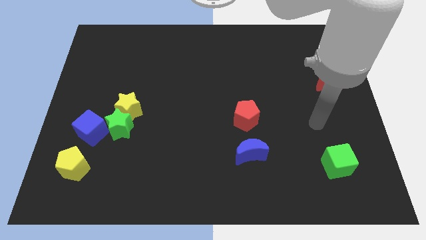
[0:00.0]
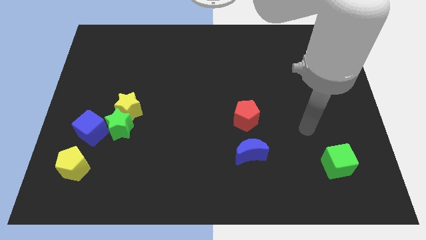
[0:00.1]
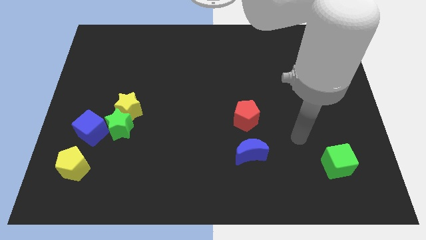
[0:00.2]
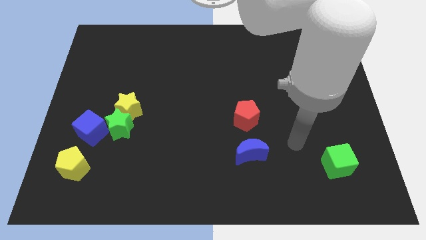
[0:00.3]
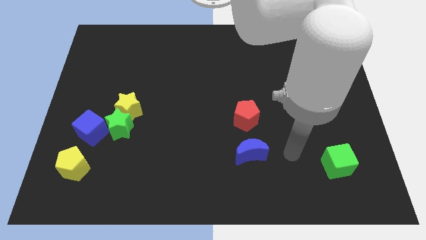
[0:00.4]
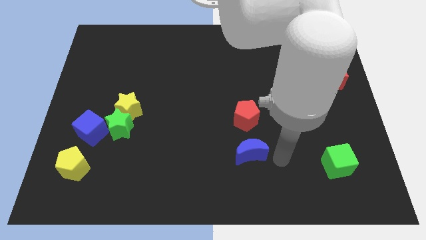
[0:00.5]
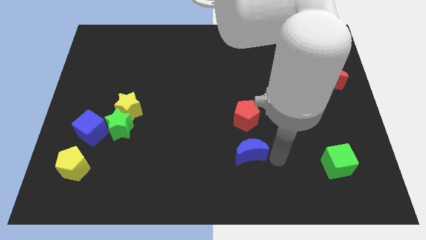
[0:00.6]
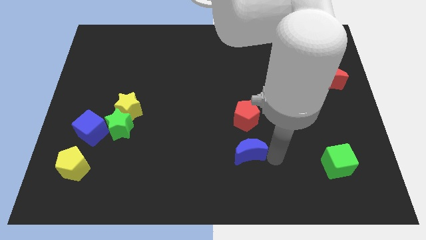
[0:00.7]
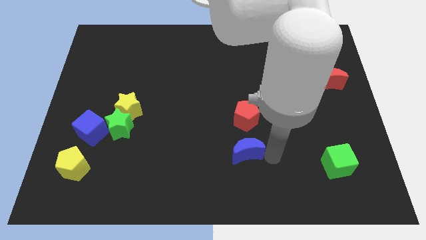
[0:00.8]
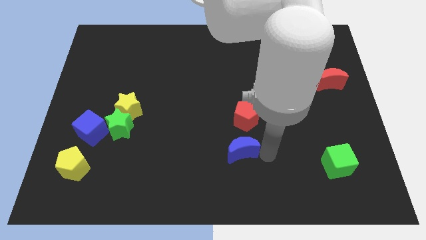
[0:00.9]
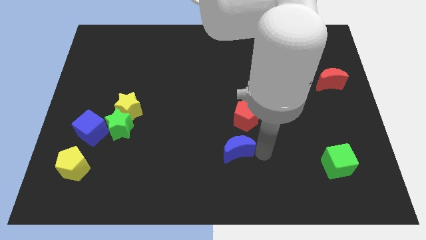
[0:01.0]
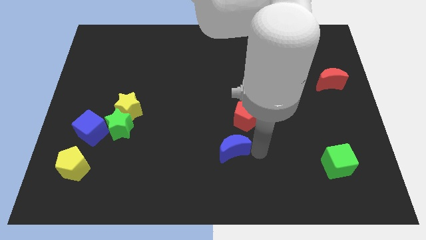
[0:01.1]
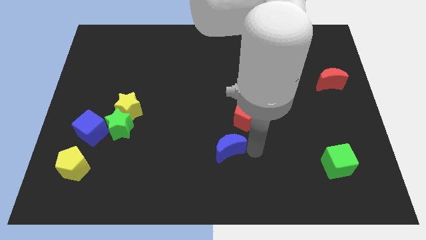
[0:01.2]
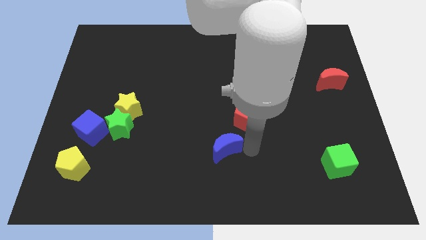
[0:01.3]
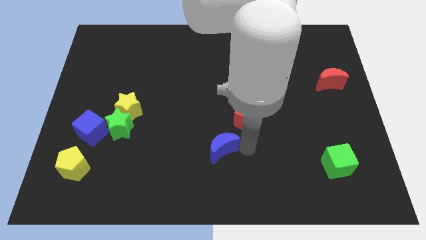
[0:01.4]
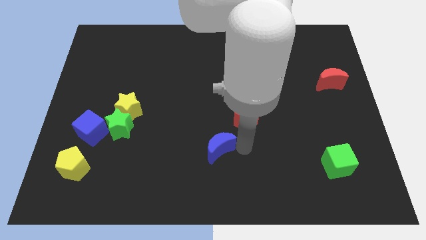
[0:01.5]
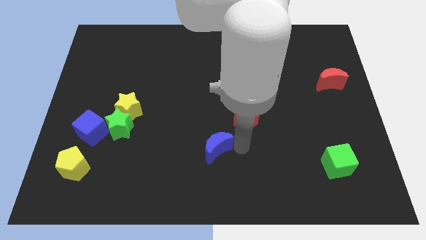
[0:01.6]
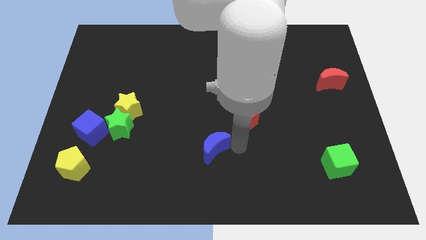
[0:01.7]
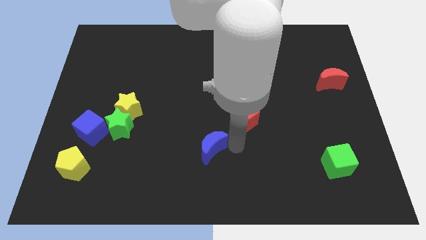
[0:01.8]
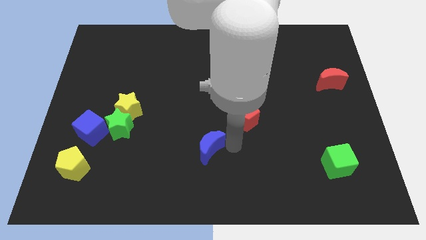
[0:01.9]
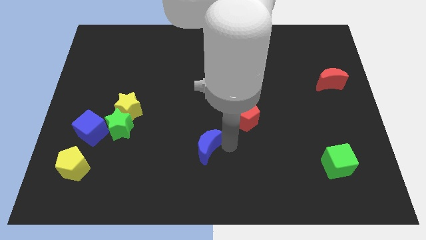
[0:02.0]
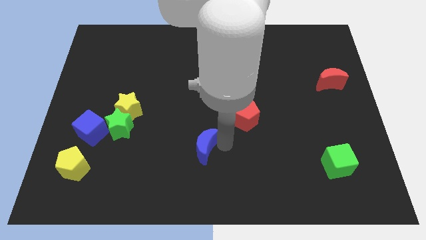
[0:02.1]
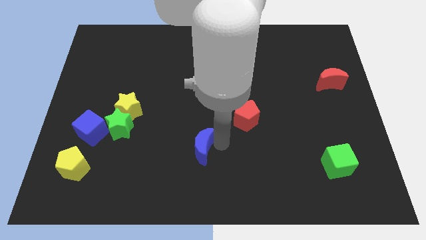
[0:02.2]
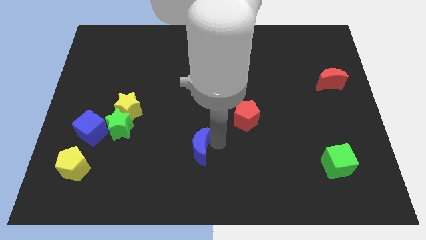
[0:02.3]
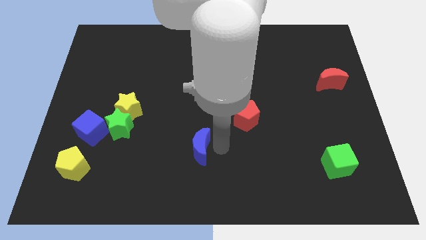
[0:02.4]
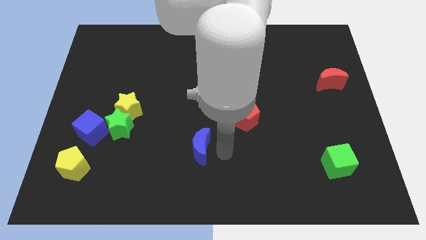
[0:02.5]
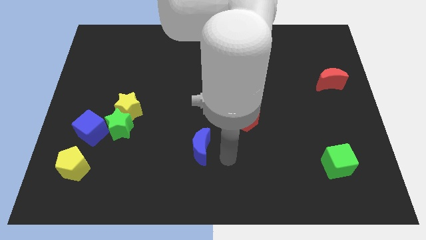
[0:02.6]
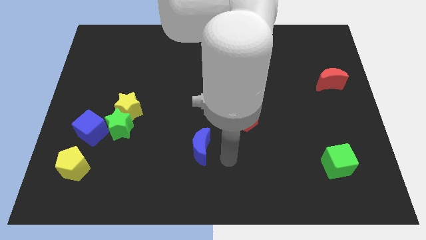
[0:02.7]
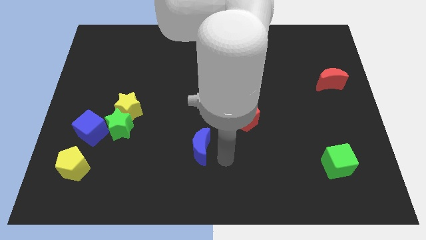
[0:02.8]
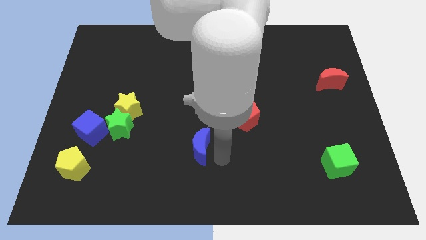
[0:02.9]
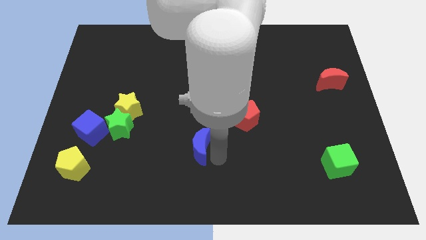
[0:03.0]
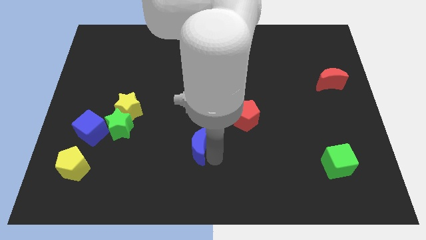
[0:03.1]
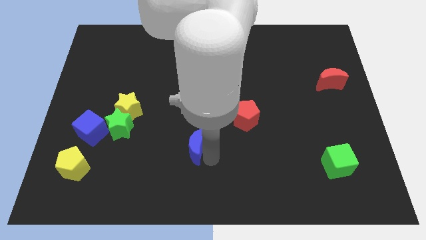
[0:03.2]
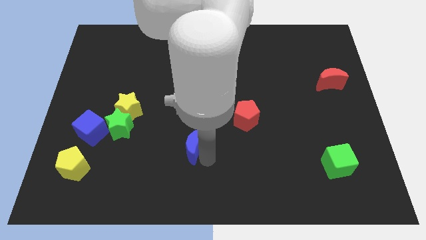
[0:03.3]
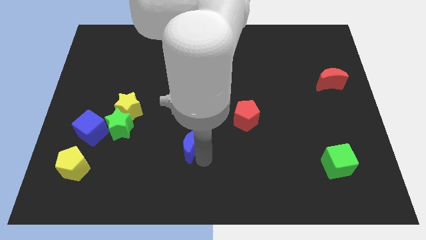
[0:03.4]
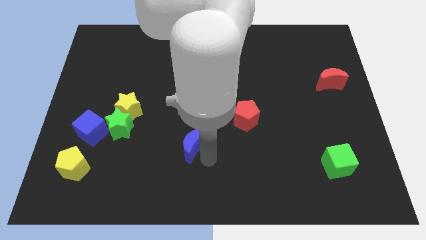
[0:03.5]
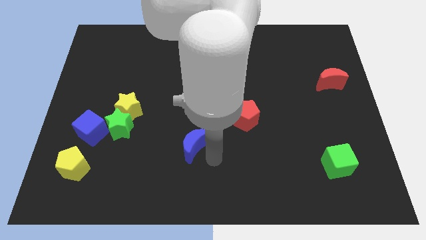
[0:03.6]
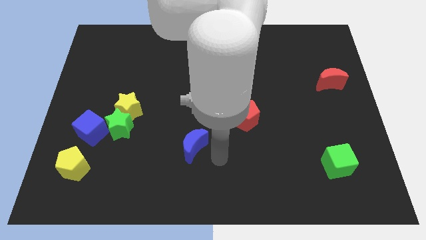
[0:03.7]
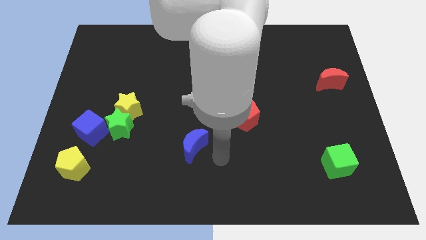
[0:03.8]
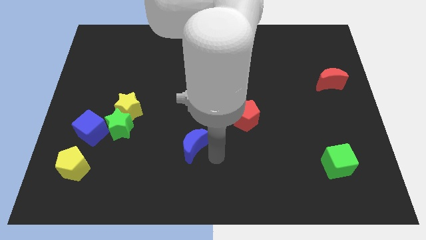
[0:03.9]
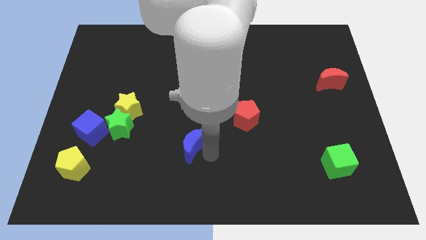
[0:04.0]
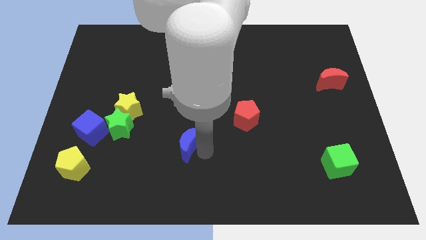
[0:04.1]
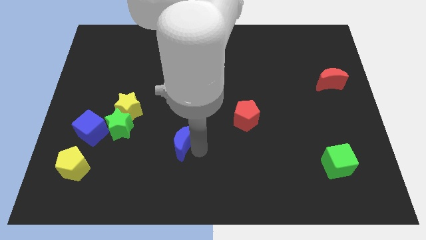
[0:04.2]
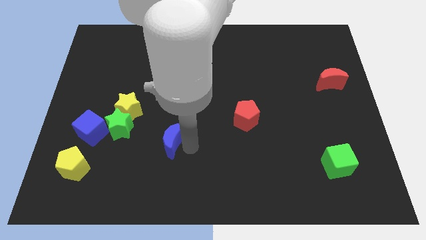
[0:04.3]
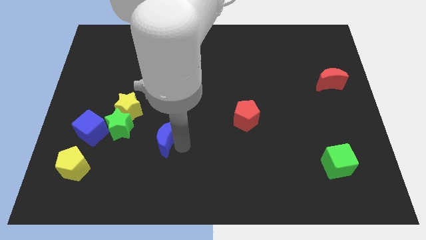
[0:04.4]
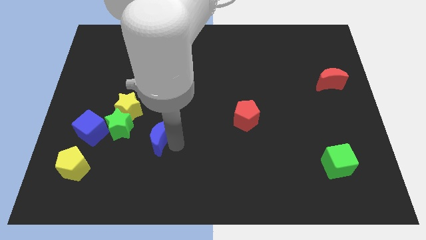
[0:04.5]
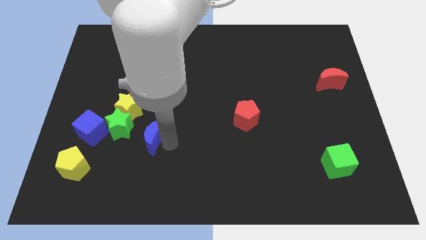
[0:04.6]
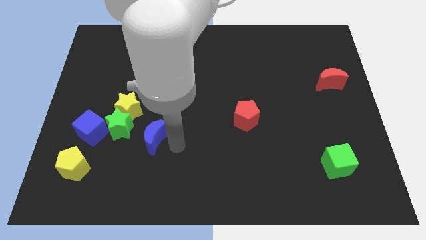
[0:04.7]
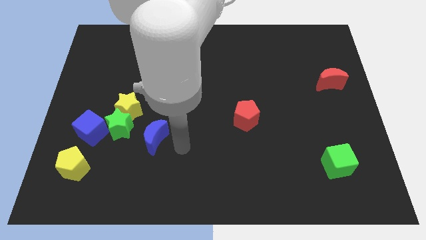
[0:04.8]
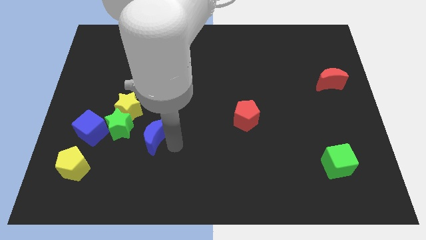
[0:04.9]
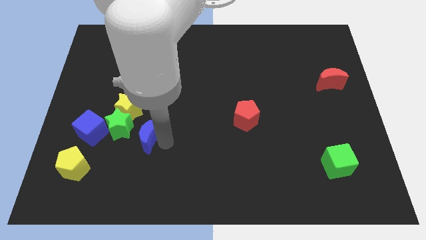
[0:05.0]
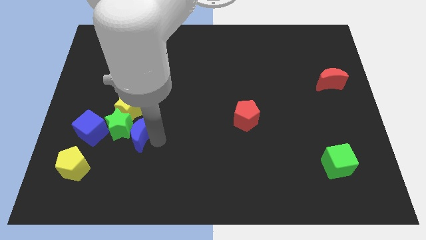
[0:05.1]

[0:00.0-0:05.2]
push the blue moon towards the green star

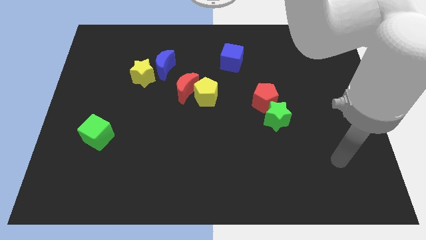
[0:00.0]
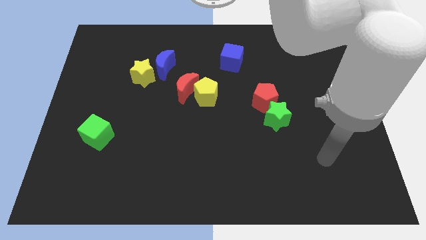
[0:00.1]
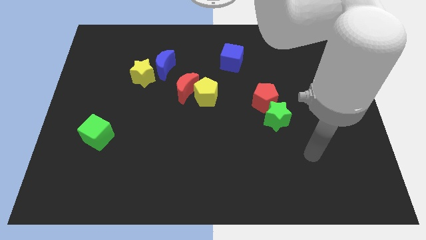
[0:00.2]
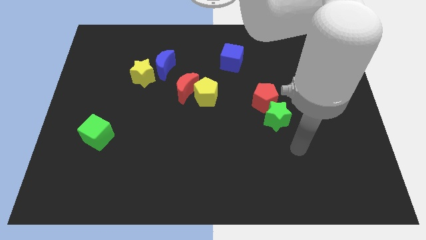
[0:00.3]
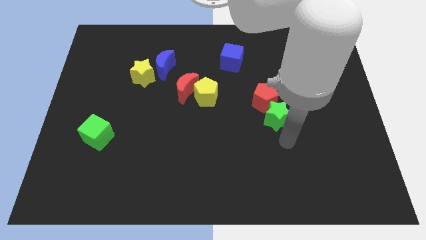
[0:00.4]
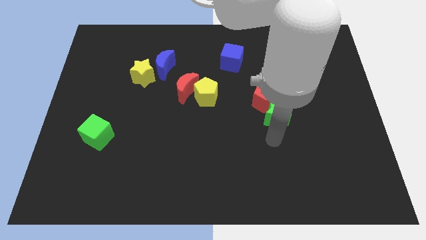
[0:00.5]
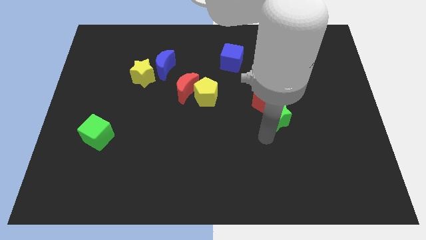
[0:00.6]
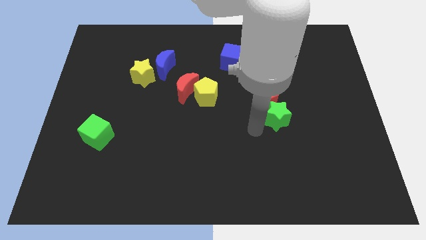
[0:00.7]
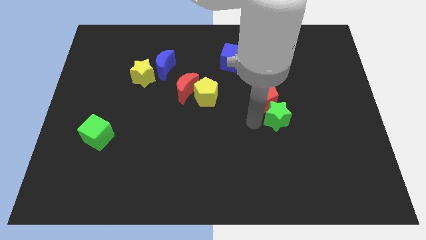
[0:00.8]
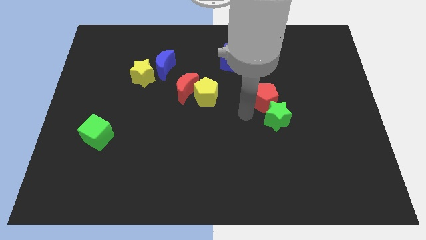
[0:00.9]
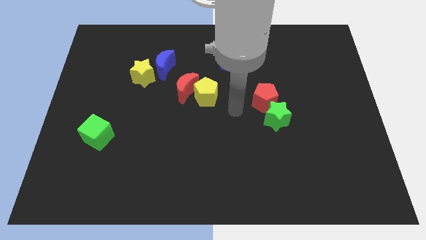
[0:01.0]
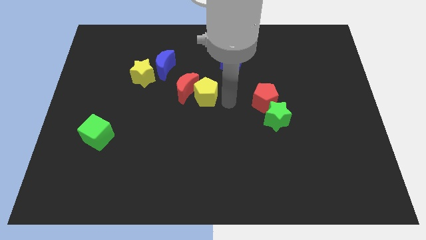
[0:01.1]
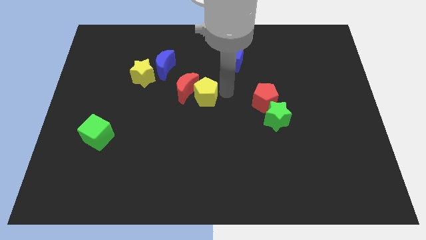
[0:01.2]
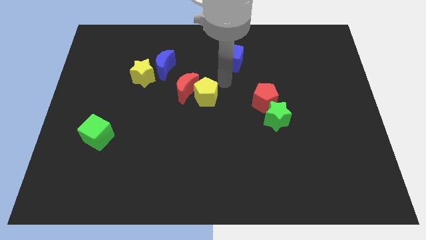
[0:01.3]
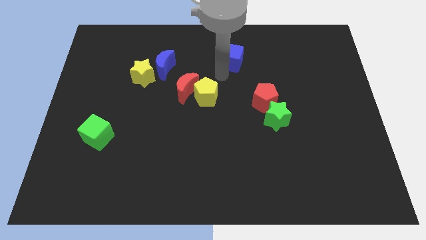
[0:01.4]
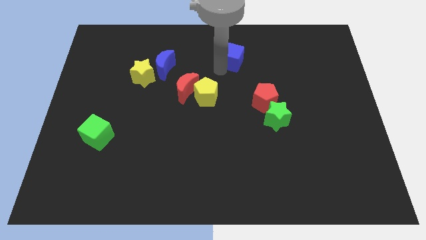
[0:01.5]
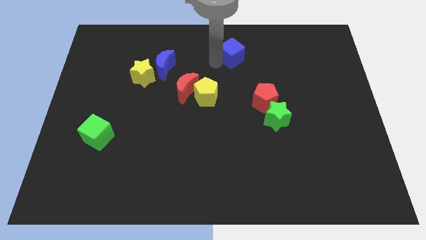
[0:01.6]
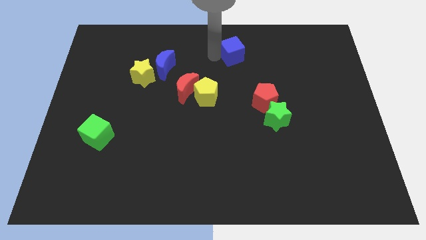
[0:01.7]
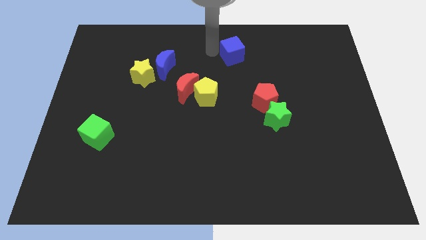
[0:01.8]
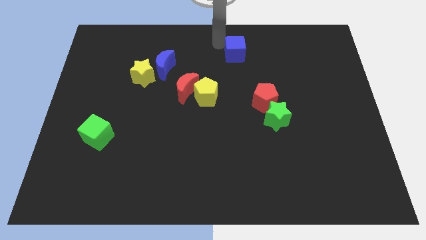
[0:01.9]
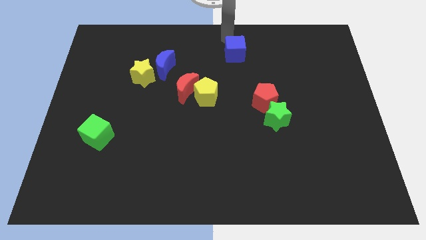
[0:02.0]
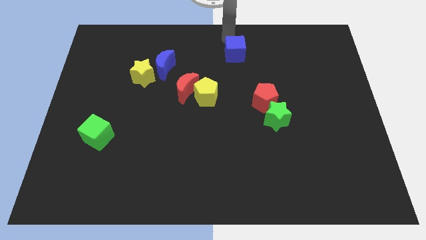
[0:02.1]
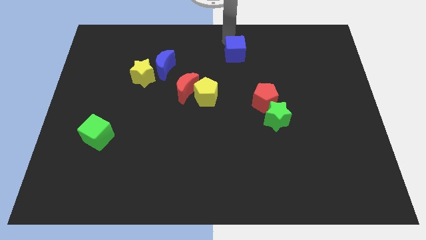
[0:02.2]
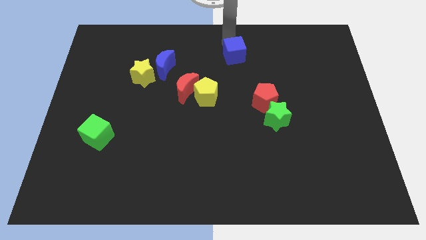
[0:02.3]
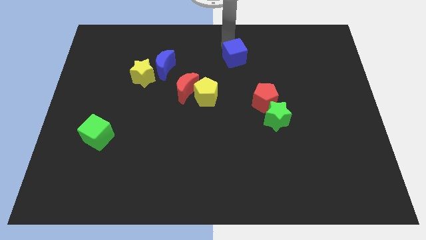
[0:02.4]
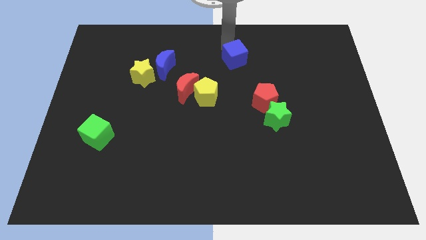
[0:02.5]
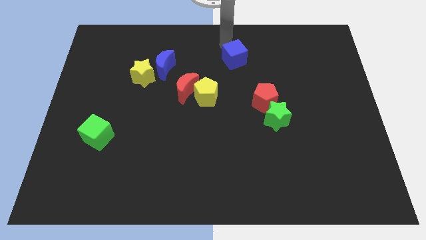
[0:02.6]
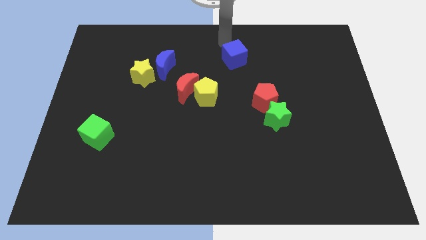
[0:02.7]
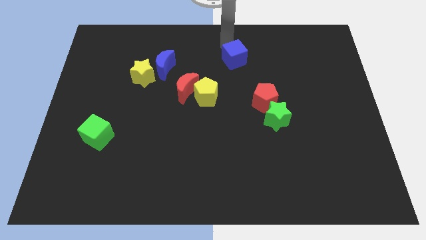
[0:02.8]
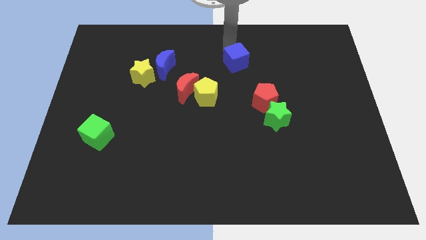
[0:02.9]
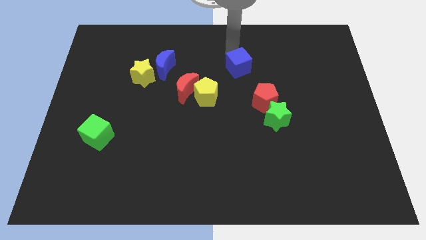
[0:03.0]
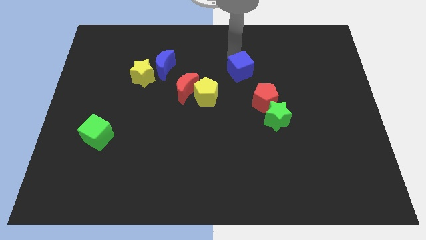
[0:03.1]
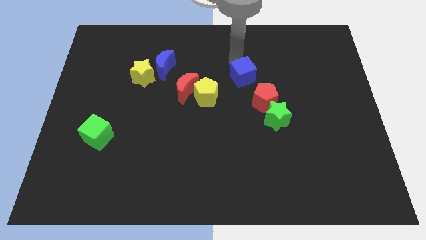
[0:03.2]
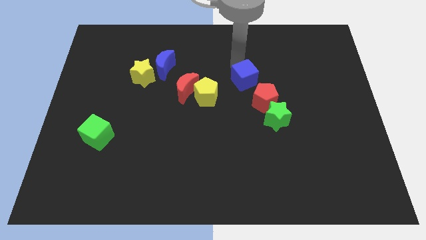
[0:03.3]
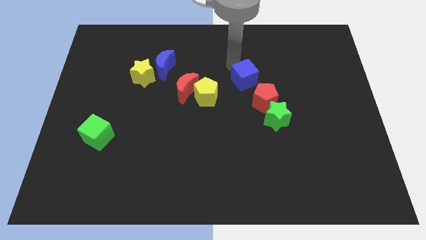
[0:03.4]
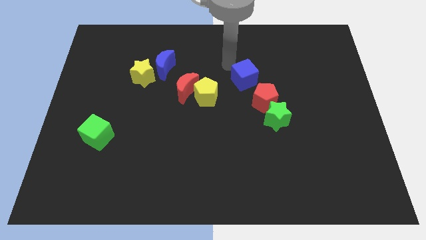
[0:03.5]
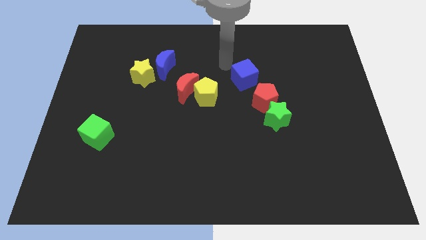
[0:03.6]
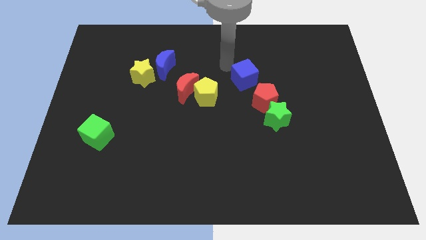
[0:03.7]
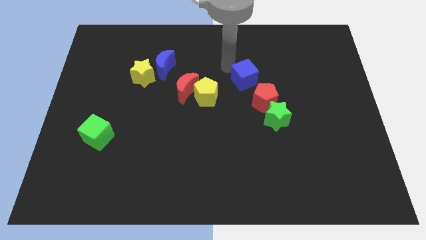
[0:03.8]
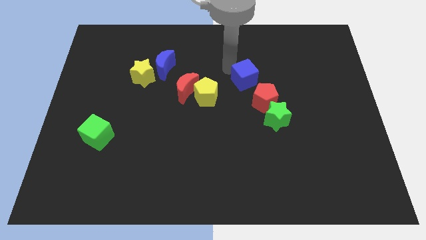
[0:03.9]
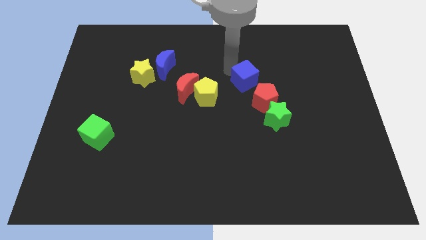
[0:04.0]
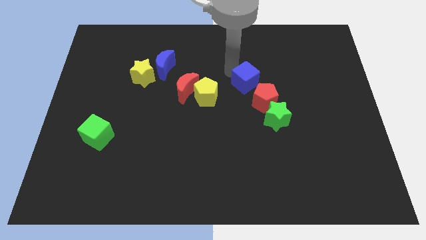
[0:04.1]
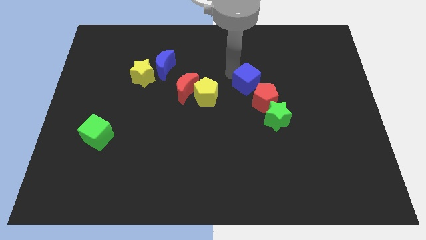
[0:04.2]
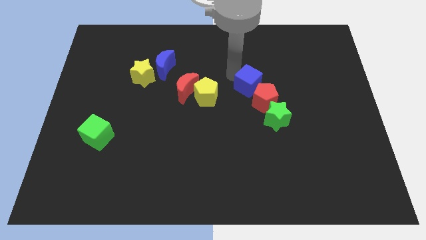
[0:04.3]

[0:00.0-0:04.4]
move the blue cube to the red pentagon
